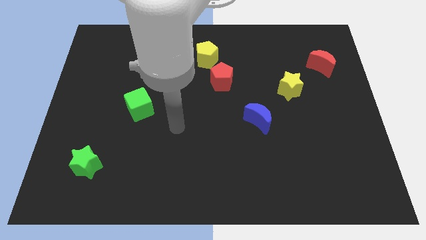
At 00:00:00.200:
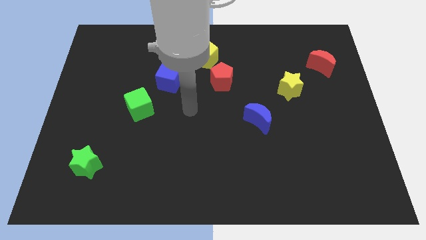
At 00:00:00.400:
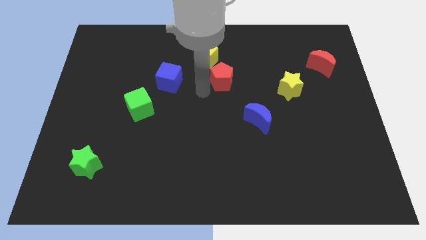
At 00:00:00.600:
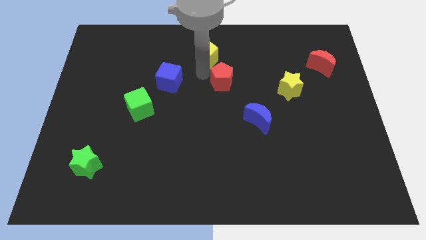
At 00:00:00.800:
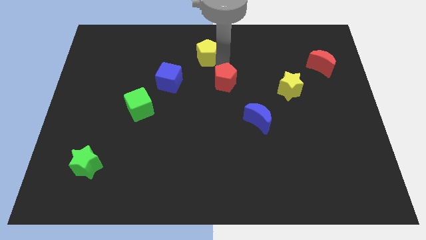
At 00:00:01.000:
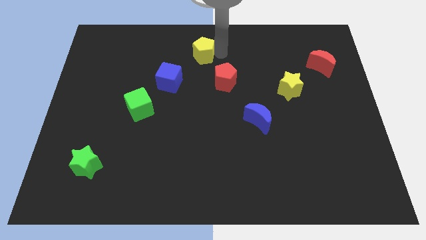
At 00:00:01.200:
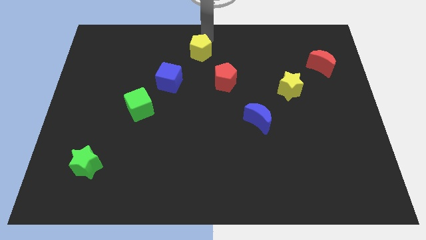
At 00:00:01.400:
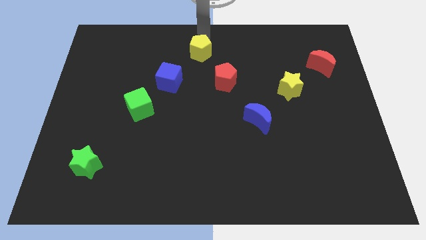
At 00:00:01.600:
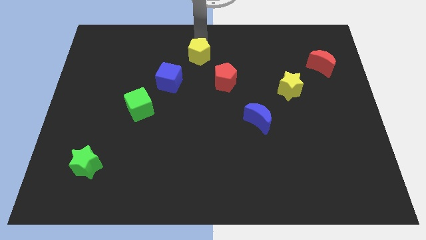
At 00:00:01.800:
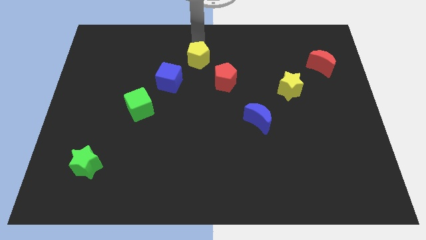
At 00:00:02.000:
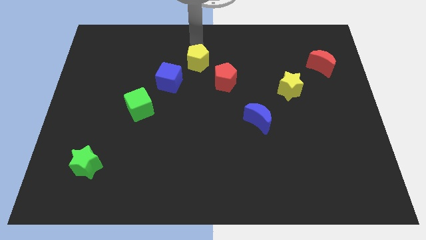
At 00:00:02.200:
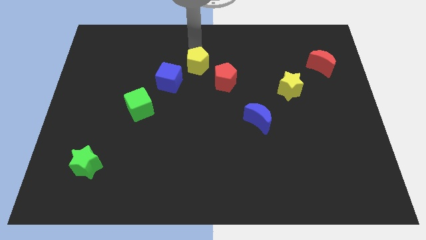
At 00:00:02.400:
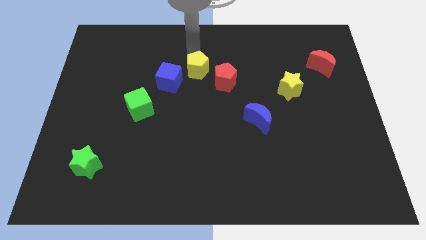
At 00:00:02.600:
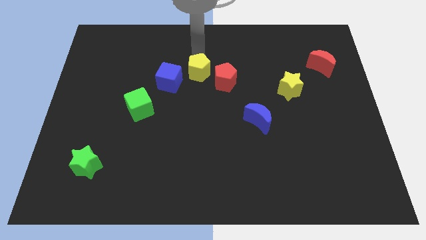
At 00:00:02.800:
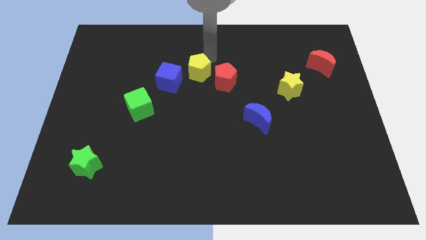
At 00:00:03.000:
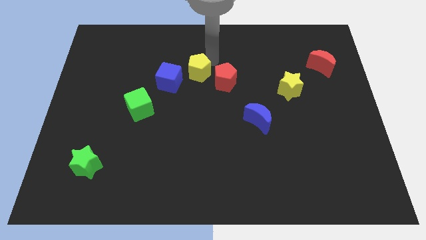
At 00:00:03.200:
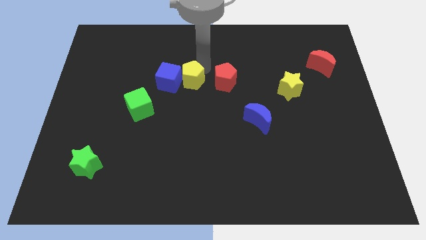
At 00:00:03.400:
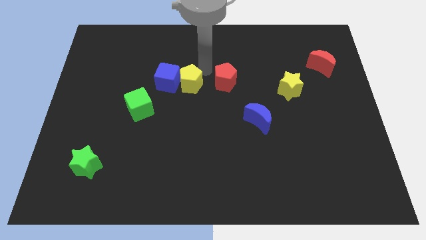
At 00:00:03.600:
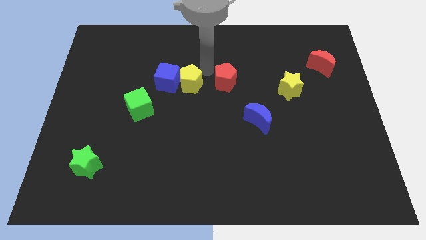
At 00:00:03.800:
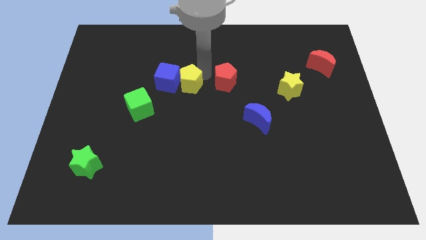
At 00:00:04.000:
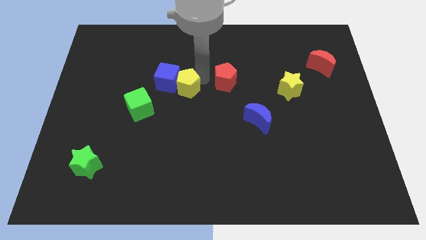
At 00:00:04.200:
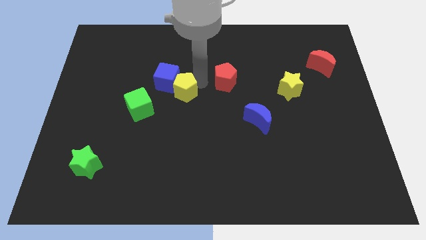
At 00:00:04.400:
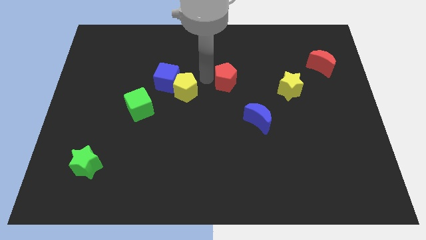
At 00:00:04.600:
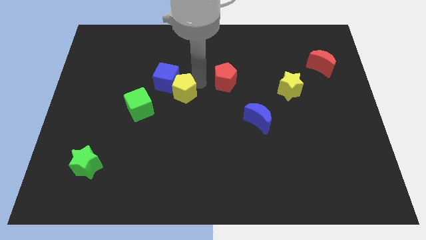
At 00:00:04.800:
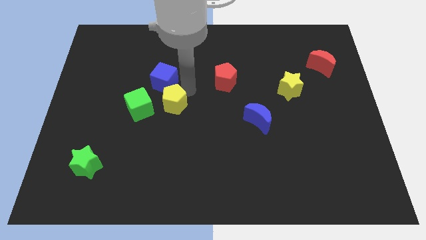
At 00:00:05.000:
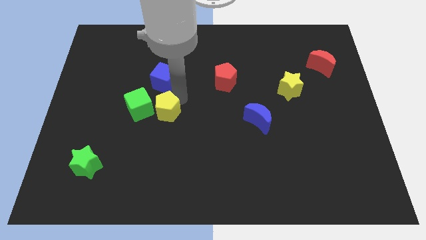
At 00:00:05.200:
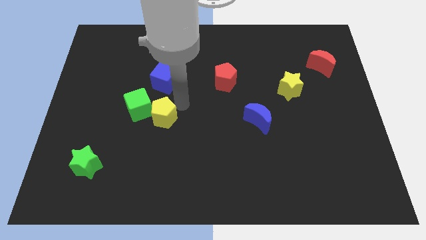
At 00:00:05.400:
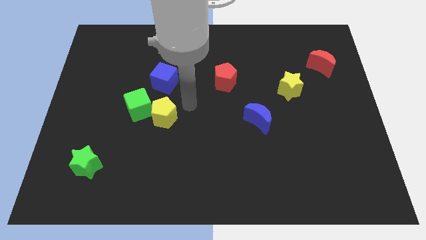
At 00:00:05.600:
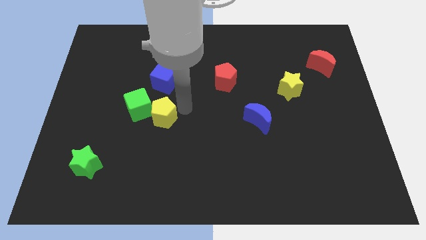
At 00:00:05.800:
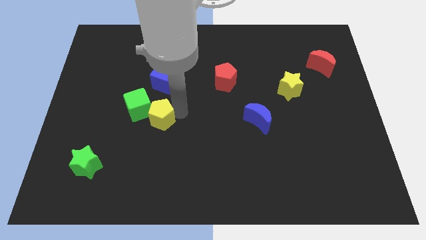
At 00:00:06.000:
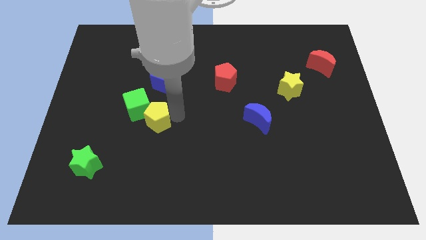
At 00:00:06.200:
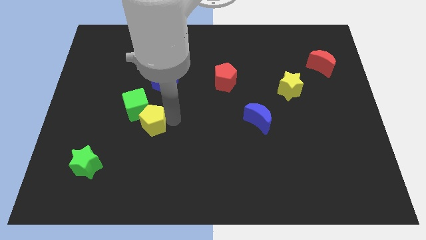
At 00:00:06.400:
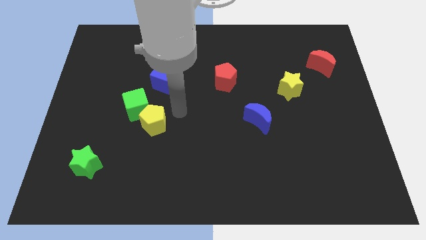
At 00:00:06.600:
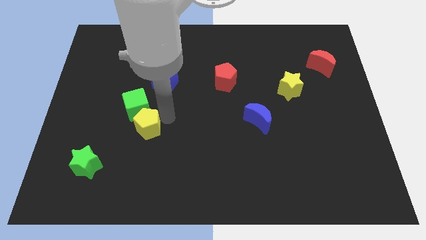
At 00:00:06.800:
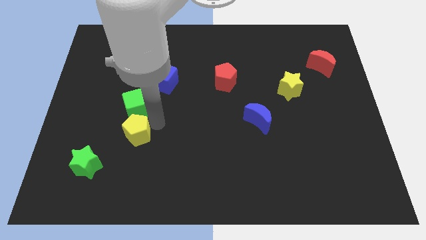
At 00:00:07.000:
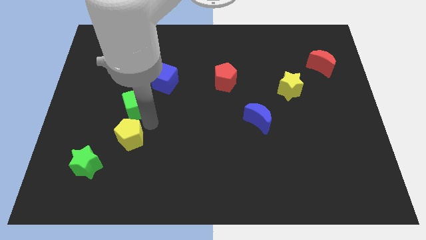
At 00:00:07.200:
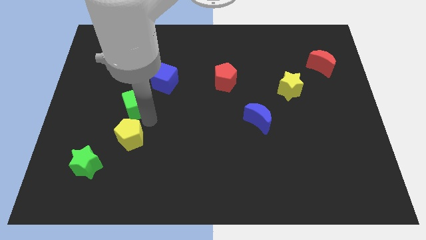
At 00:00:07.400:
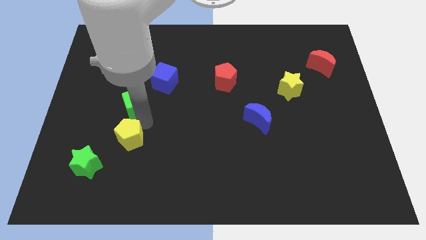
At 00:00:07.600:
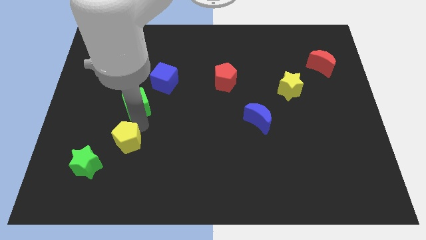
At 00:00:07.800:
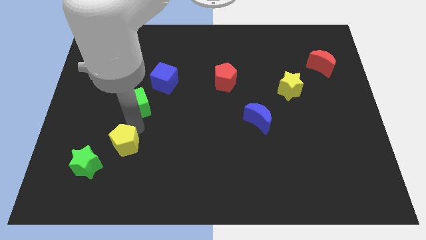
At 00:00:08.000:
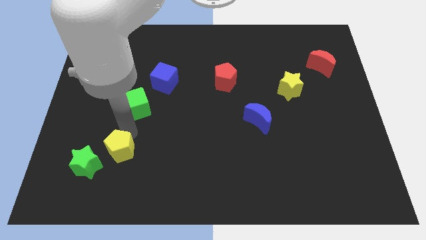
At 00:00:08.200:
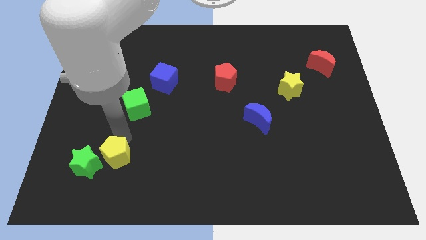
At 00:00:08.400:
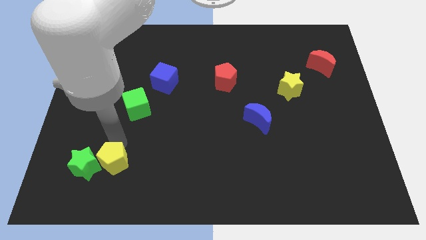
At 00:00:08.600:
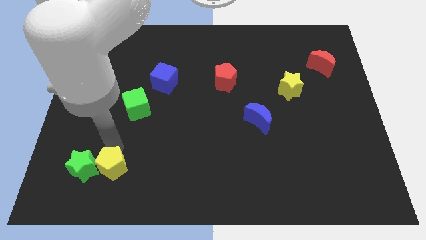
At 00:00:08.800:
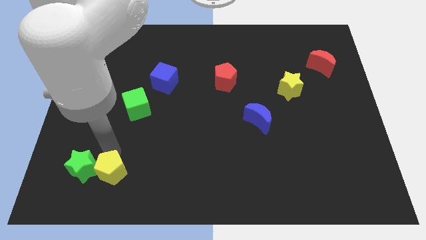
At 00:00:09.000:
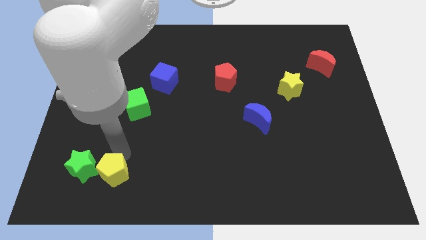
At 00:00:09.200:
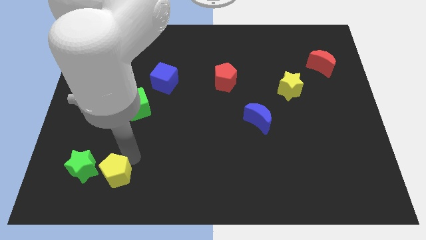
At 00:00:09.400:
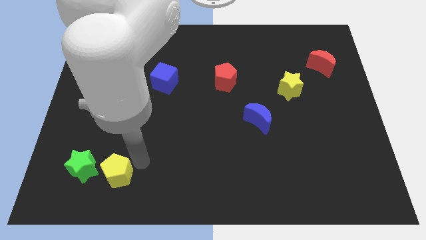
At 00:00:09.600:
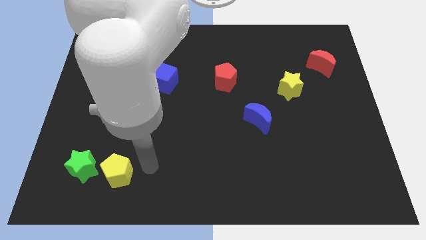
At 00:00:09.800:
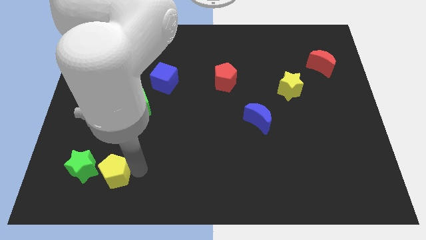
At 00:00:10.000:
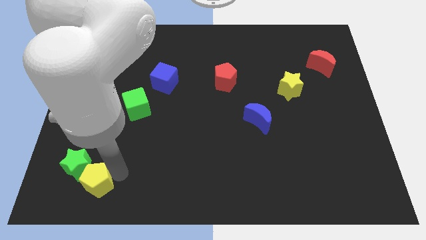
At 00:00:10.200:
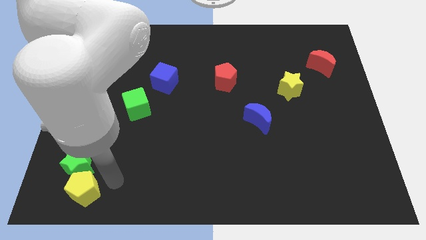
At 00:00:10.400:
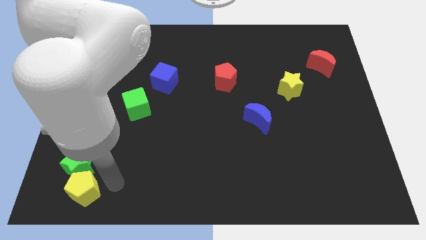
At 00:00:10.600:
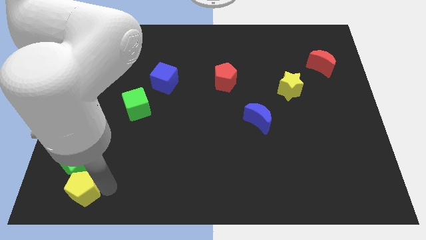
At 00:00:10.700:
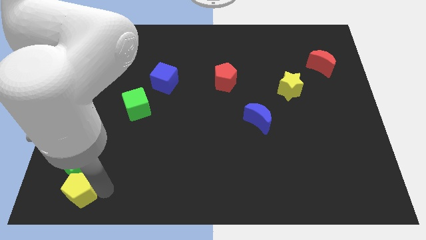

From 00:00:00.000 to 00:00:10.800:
put the yellow pentagon to the bottom left

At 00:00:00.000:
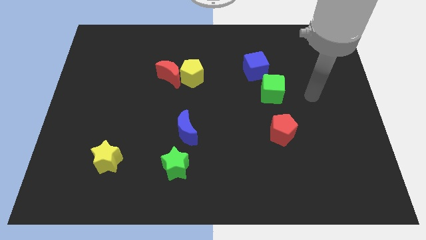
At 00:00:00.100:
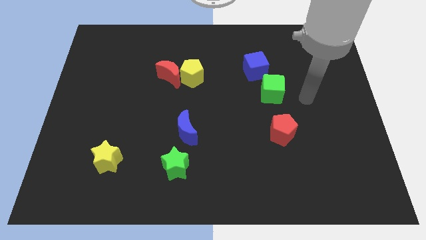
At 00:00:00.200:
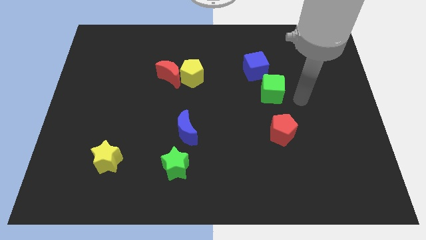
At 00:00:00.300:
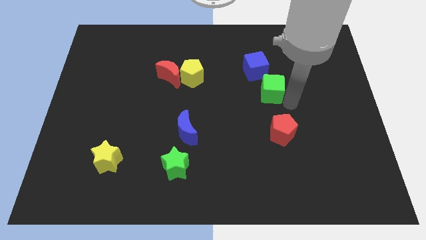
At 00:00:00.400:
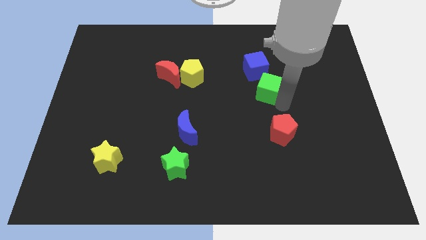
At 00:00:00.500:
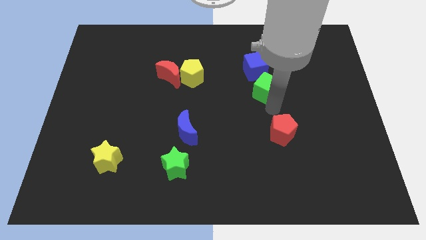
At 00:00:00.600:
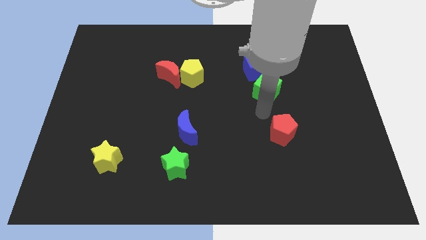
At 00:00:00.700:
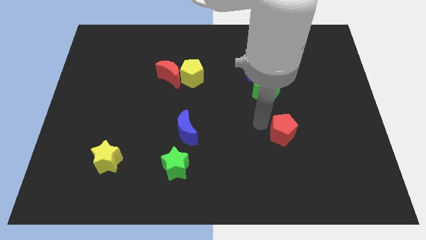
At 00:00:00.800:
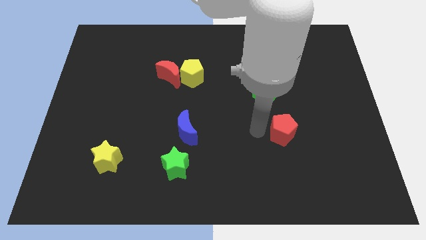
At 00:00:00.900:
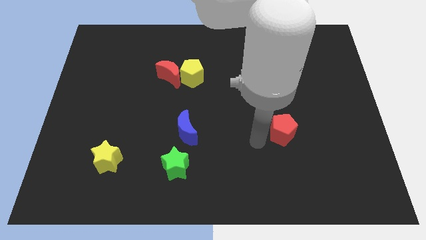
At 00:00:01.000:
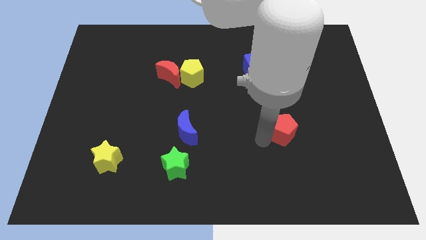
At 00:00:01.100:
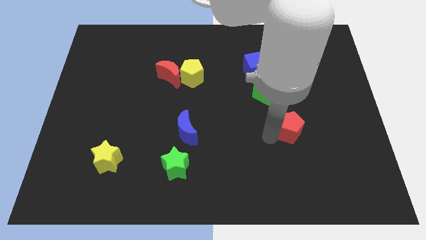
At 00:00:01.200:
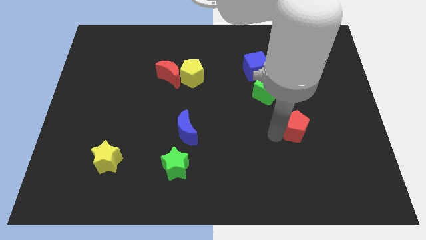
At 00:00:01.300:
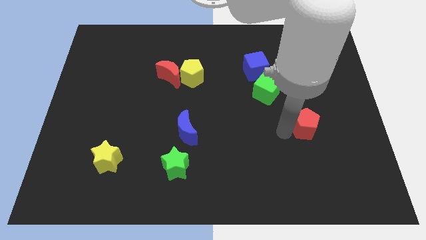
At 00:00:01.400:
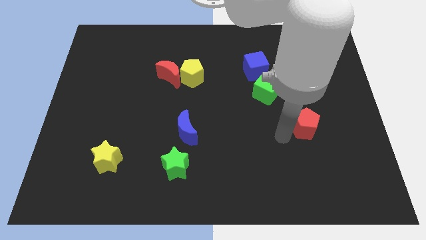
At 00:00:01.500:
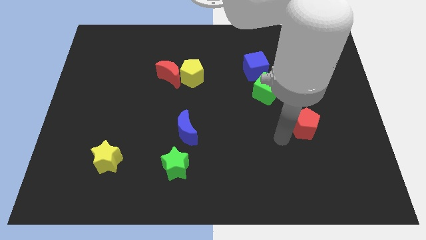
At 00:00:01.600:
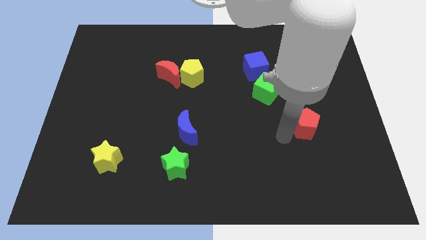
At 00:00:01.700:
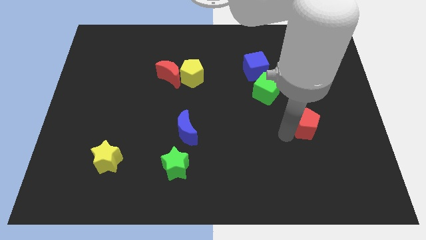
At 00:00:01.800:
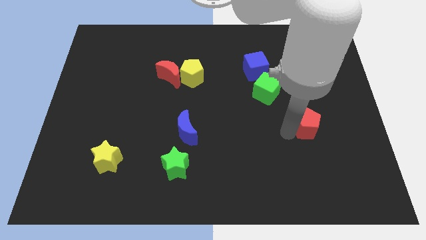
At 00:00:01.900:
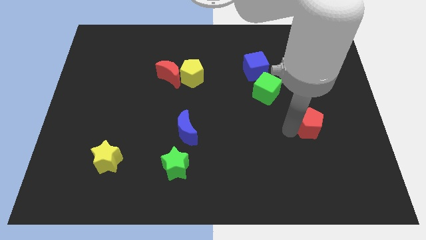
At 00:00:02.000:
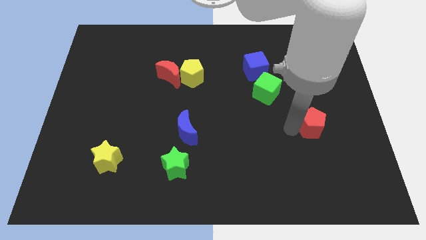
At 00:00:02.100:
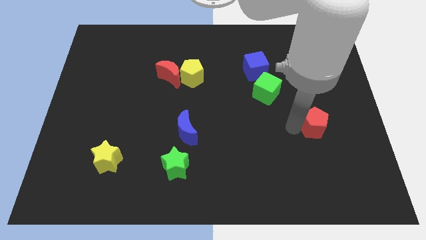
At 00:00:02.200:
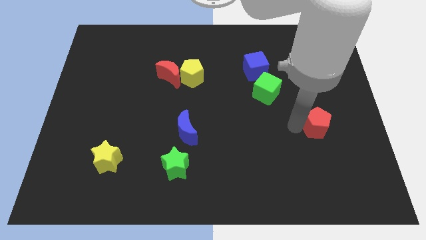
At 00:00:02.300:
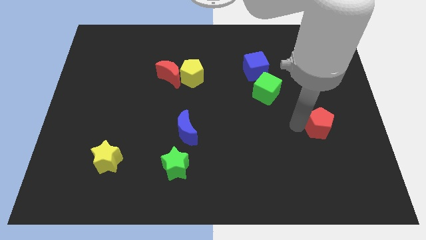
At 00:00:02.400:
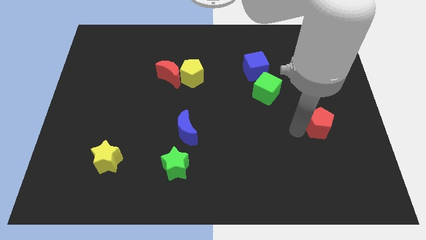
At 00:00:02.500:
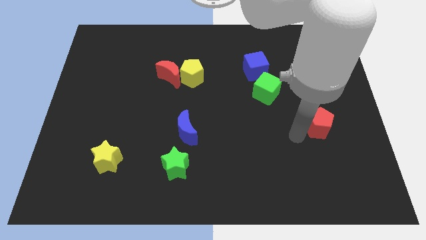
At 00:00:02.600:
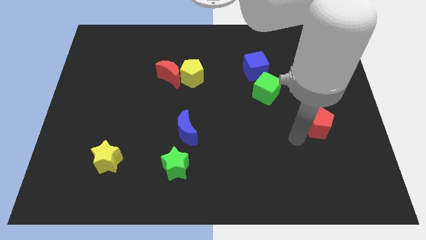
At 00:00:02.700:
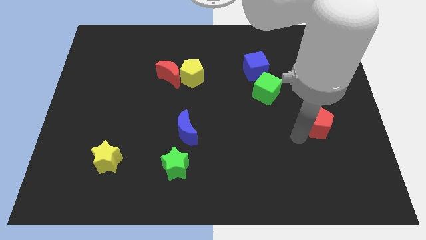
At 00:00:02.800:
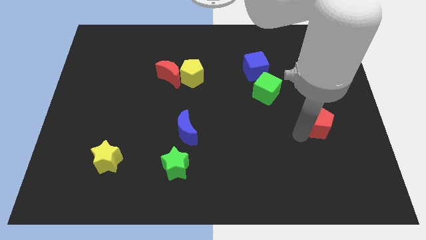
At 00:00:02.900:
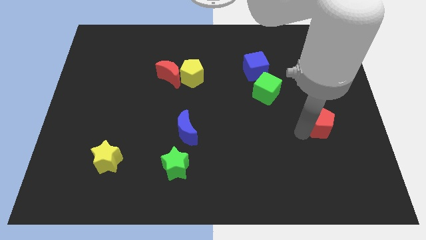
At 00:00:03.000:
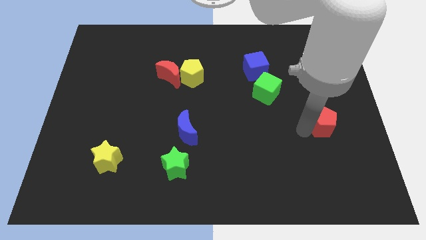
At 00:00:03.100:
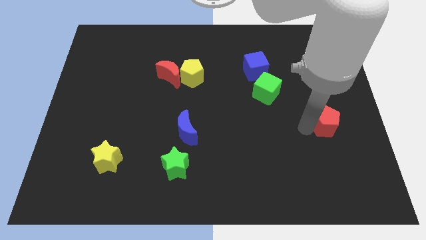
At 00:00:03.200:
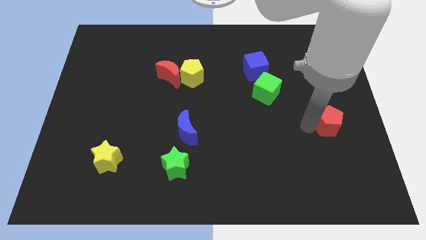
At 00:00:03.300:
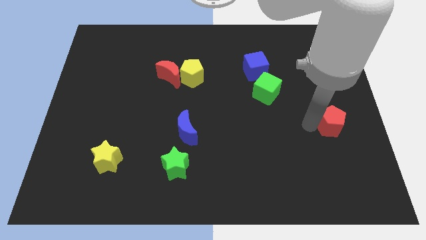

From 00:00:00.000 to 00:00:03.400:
slide the red pentagon to the center right
